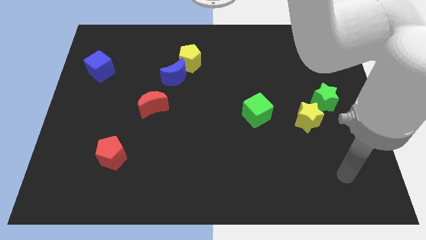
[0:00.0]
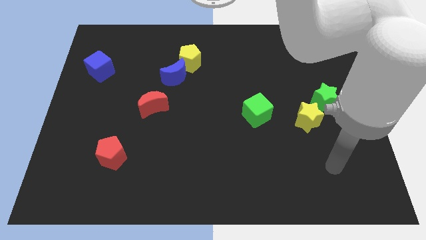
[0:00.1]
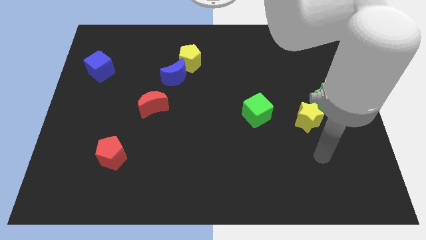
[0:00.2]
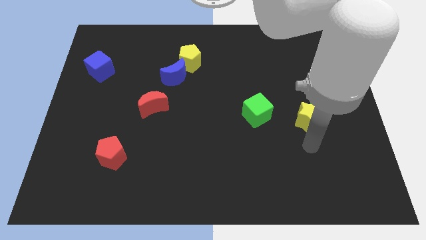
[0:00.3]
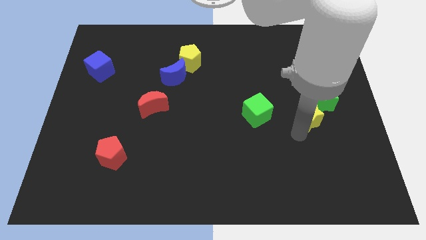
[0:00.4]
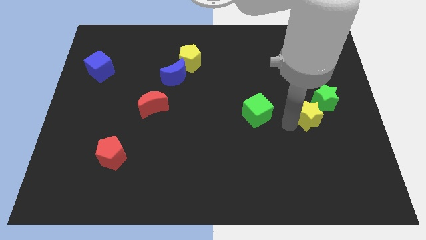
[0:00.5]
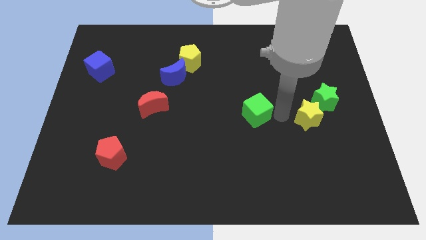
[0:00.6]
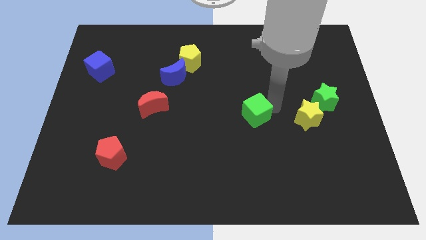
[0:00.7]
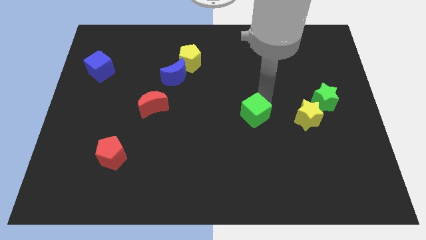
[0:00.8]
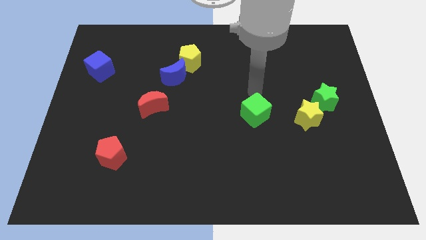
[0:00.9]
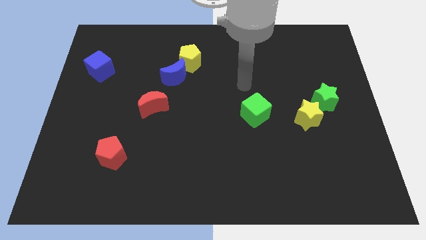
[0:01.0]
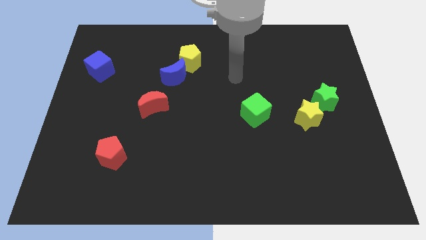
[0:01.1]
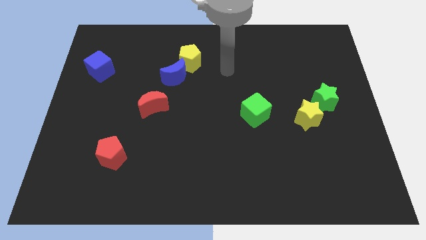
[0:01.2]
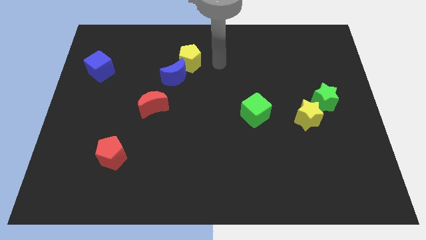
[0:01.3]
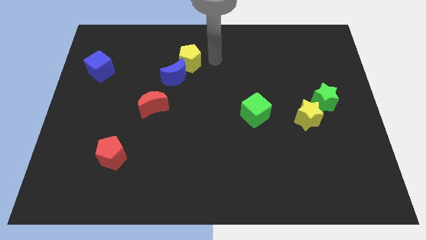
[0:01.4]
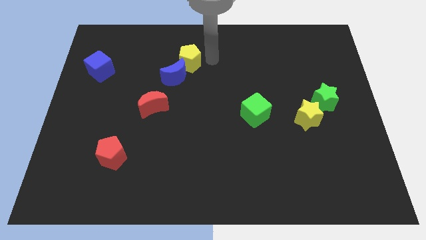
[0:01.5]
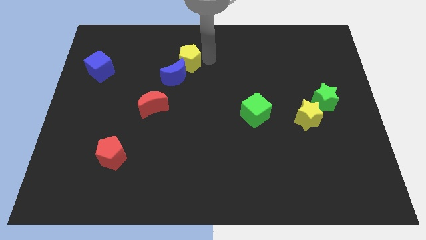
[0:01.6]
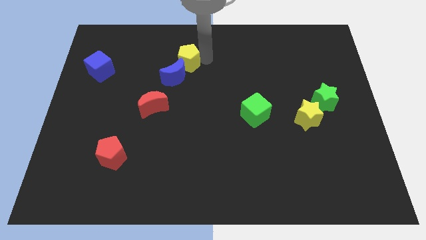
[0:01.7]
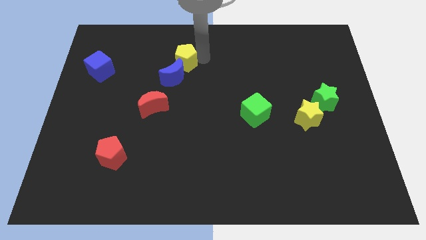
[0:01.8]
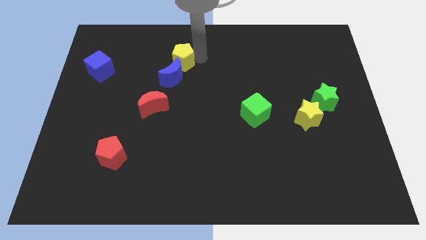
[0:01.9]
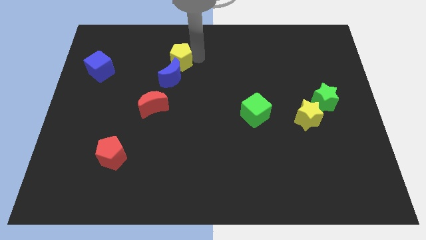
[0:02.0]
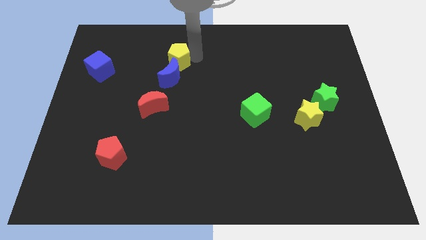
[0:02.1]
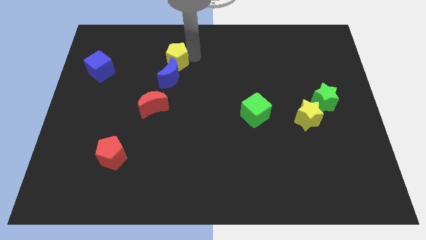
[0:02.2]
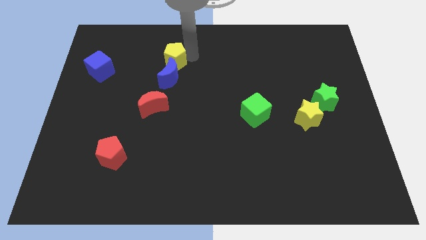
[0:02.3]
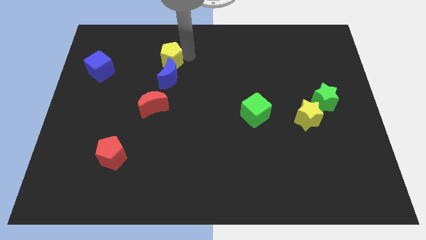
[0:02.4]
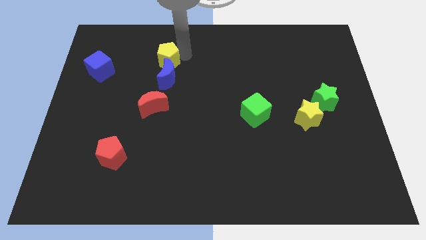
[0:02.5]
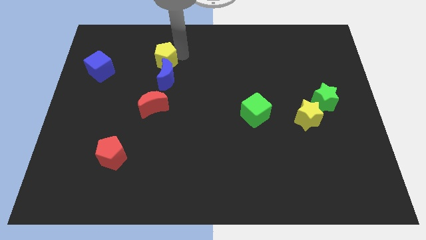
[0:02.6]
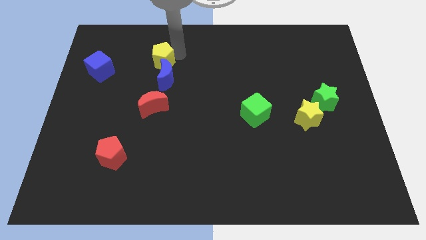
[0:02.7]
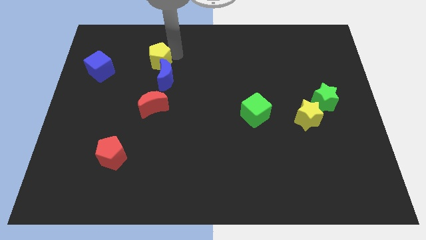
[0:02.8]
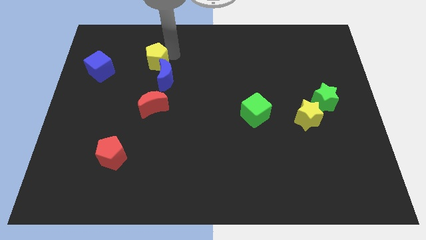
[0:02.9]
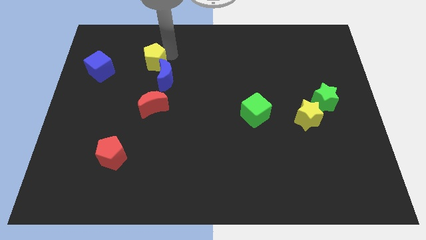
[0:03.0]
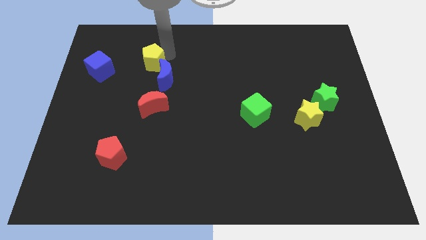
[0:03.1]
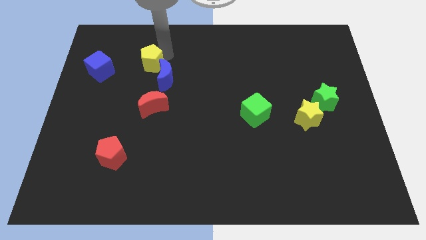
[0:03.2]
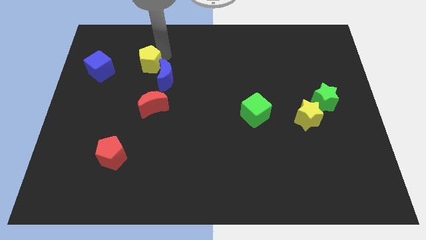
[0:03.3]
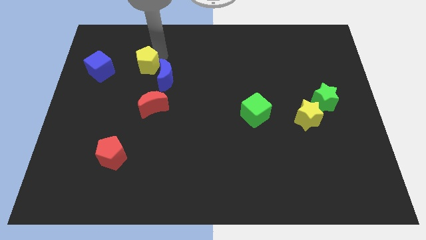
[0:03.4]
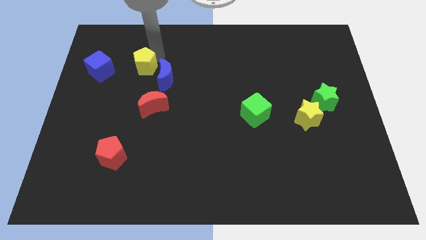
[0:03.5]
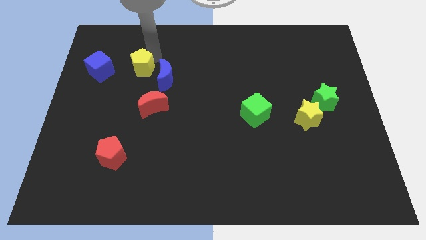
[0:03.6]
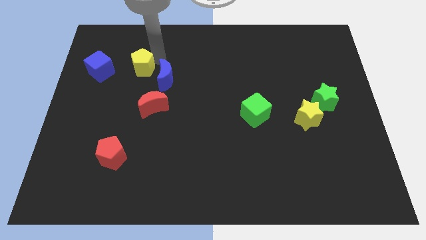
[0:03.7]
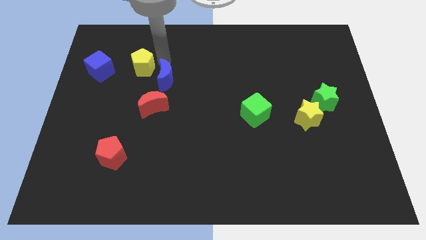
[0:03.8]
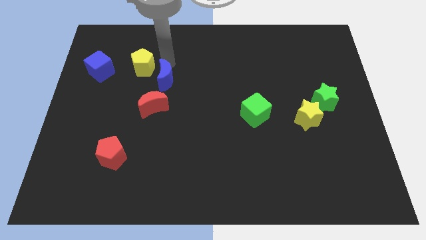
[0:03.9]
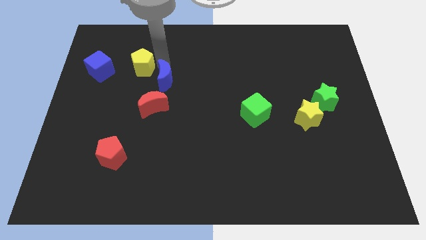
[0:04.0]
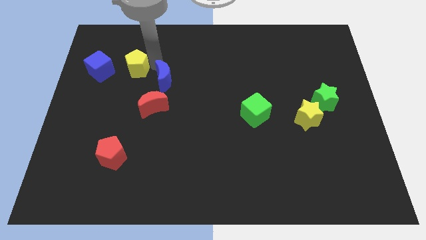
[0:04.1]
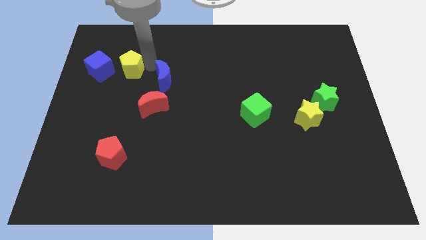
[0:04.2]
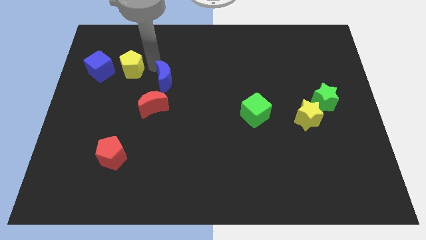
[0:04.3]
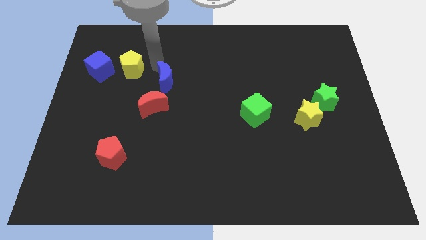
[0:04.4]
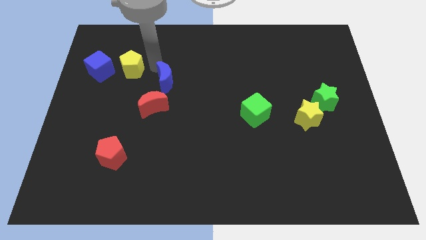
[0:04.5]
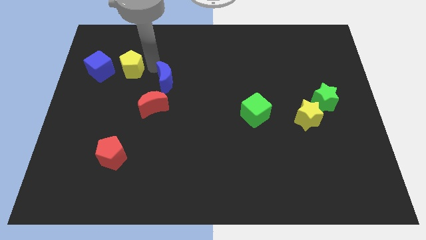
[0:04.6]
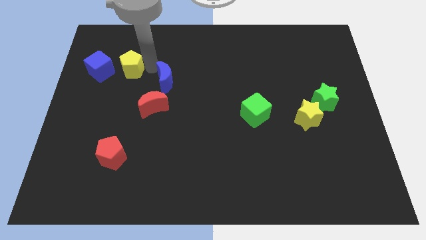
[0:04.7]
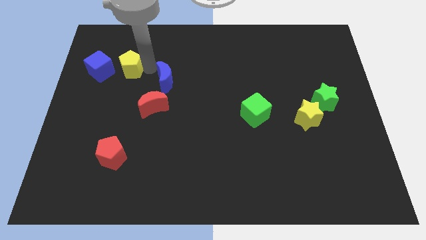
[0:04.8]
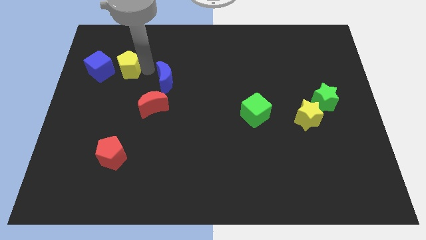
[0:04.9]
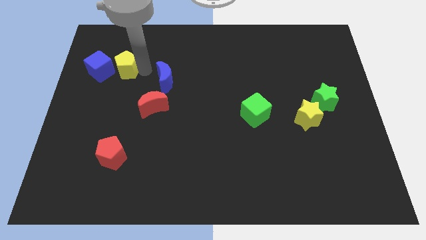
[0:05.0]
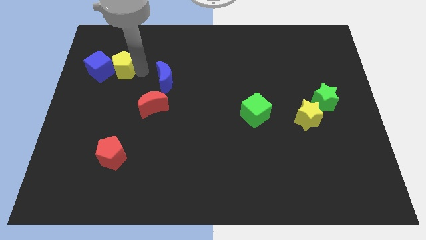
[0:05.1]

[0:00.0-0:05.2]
put the yellow pentagon close to the blue cube

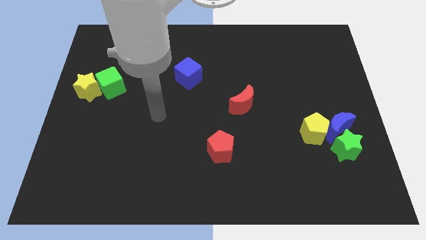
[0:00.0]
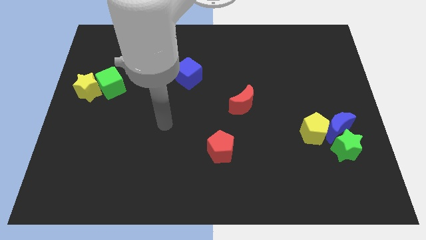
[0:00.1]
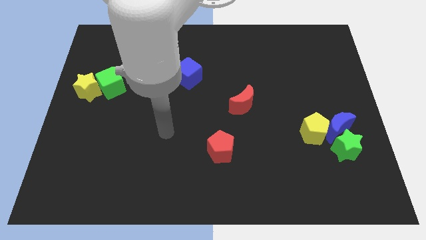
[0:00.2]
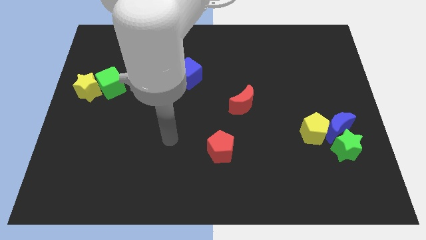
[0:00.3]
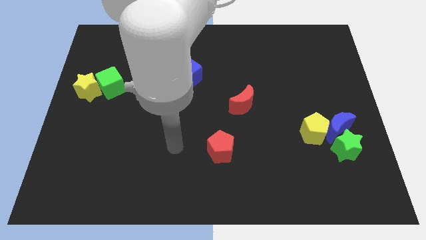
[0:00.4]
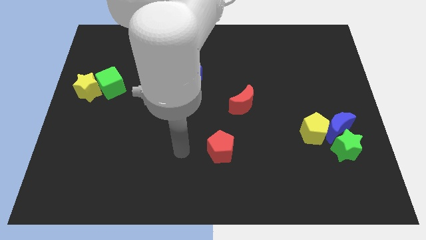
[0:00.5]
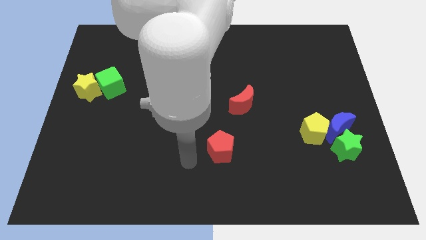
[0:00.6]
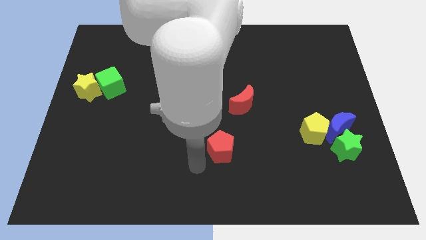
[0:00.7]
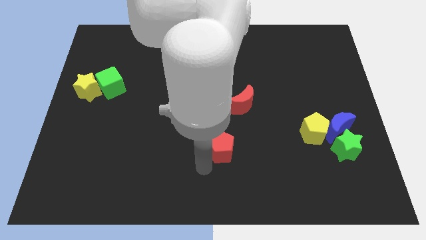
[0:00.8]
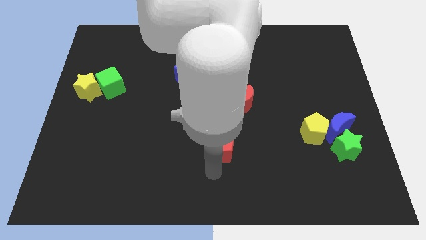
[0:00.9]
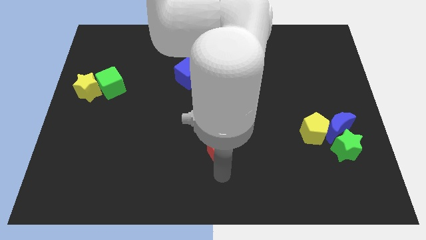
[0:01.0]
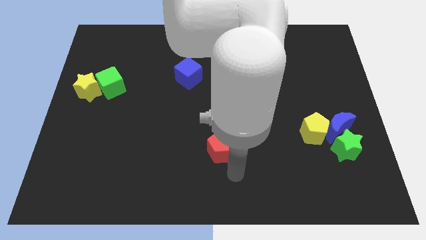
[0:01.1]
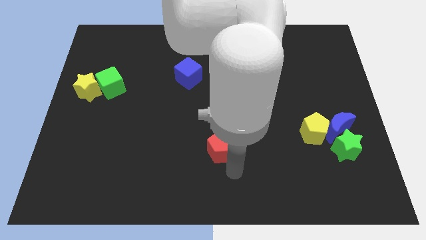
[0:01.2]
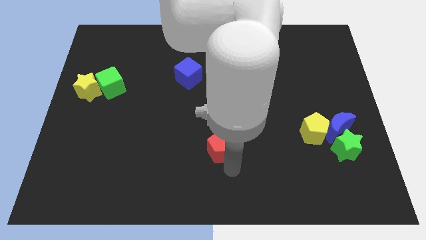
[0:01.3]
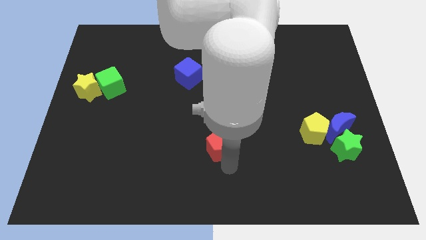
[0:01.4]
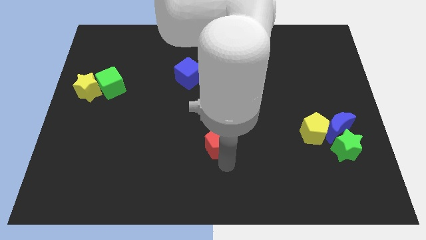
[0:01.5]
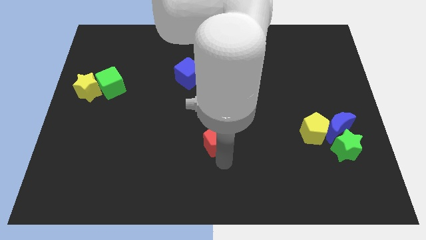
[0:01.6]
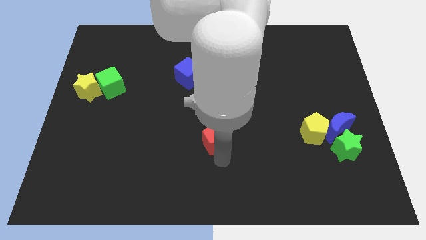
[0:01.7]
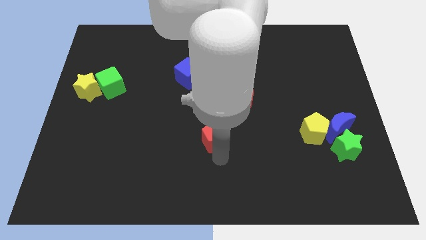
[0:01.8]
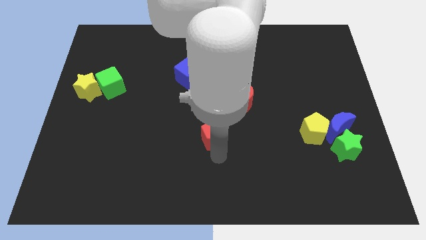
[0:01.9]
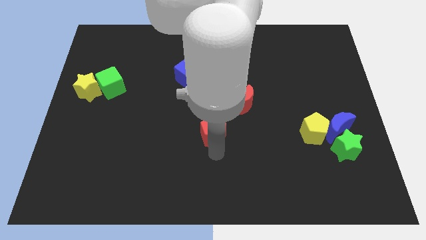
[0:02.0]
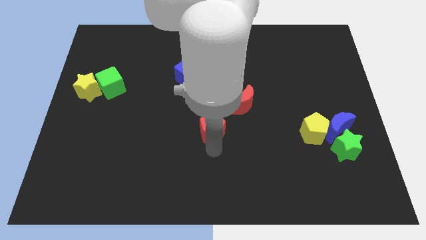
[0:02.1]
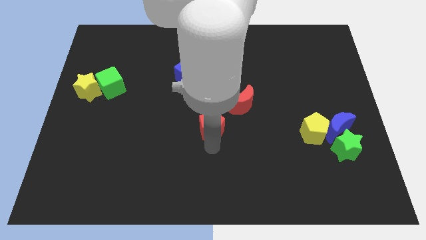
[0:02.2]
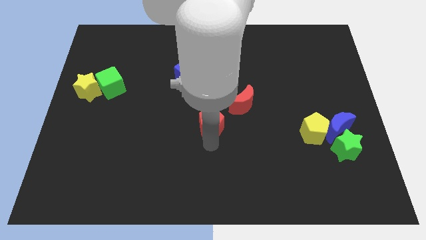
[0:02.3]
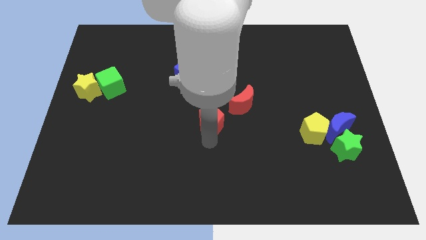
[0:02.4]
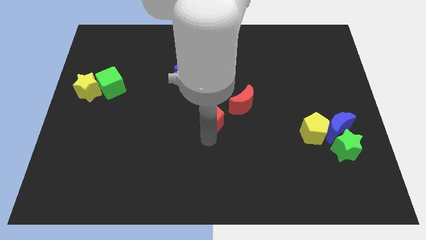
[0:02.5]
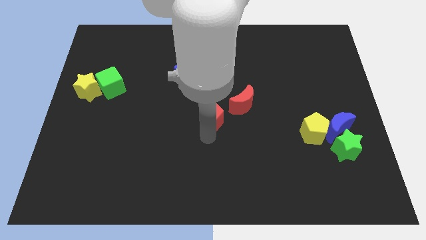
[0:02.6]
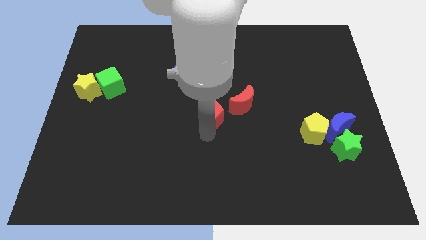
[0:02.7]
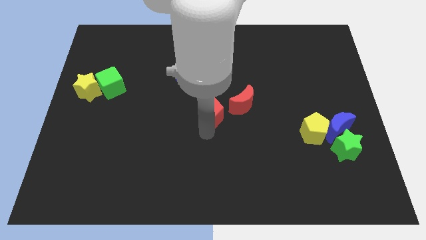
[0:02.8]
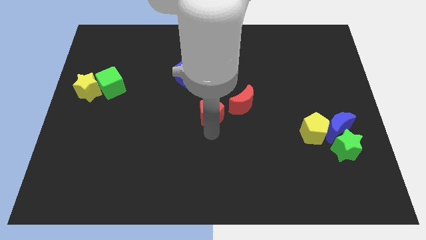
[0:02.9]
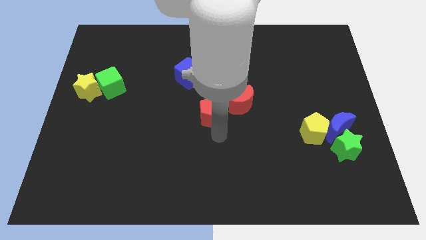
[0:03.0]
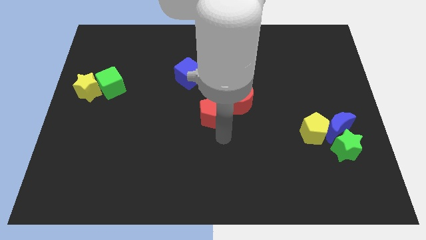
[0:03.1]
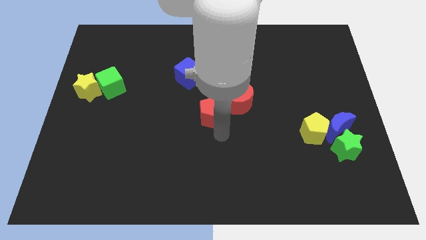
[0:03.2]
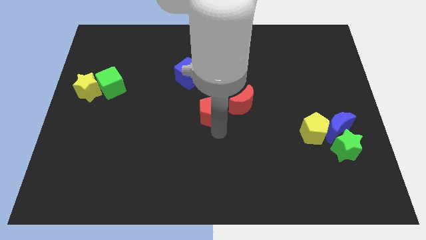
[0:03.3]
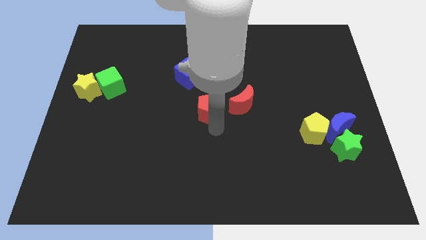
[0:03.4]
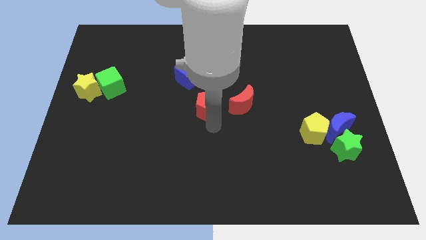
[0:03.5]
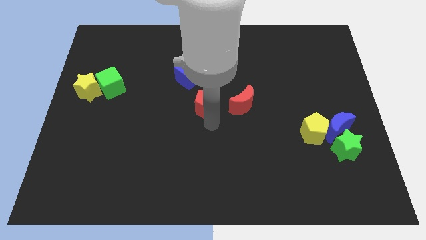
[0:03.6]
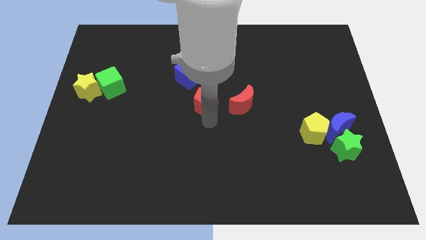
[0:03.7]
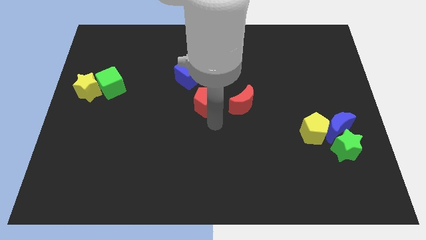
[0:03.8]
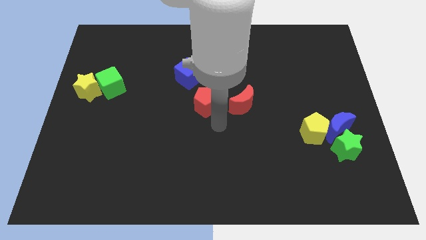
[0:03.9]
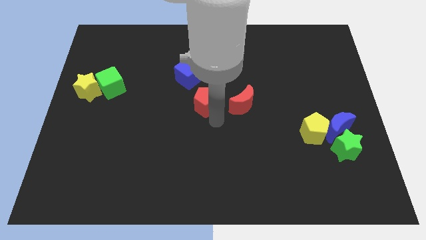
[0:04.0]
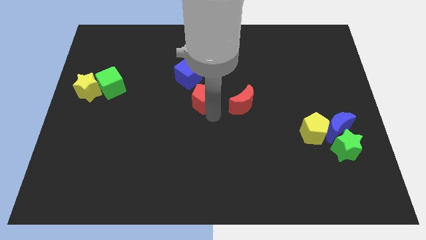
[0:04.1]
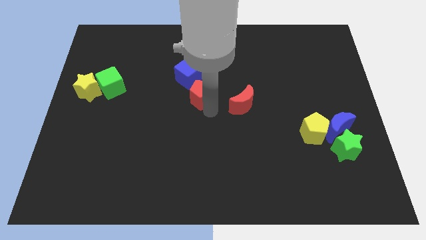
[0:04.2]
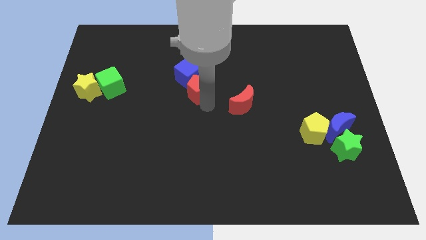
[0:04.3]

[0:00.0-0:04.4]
slide the red pentagon close to the blue cube
